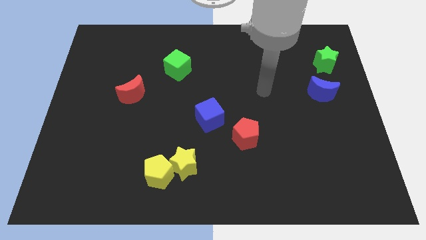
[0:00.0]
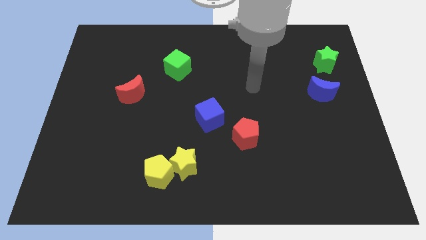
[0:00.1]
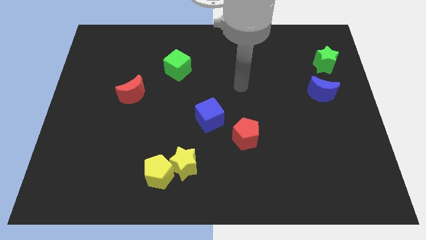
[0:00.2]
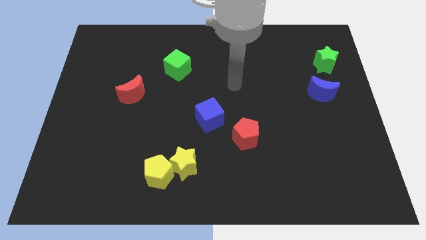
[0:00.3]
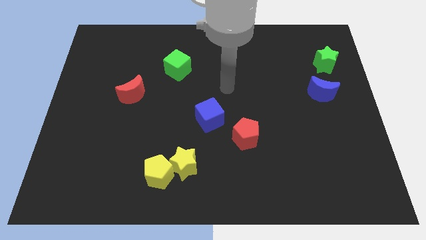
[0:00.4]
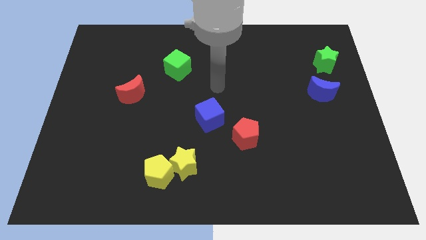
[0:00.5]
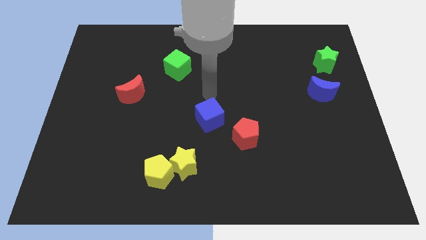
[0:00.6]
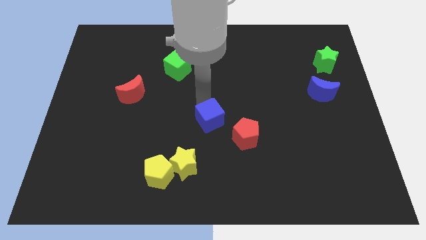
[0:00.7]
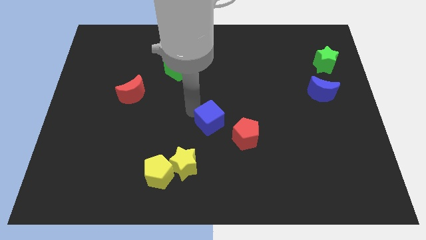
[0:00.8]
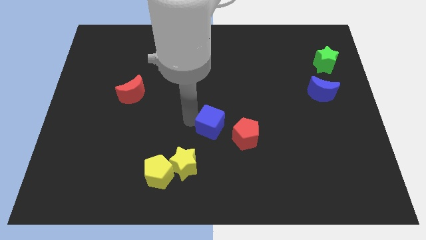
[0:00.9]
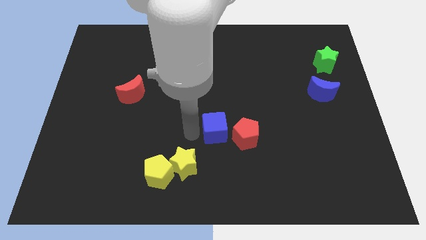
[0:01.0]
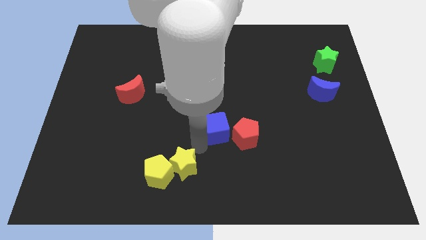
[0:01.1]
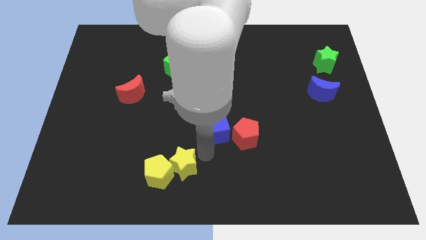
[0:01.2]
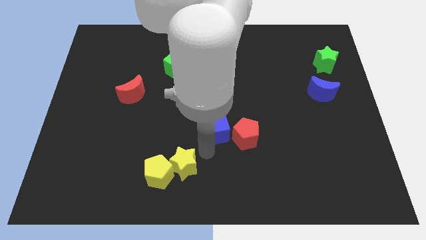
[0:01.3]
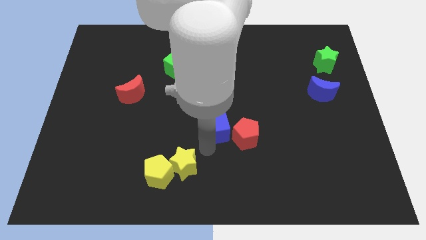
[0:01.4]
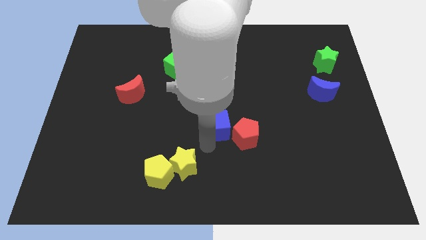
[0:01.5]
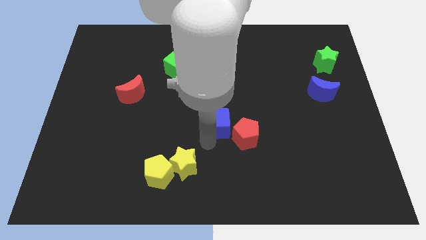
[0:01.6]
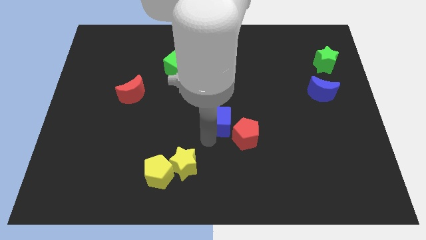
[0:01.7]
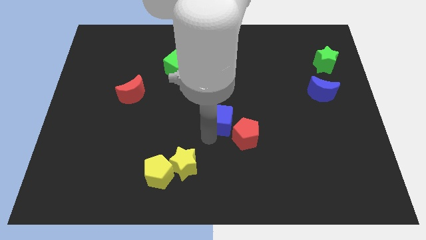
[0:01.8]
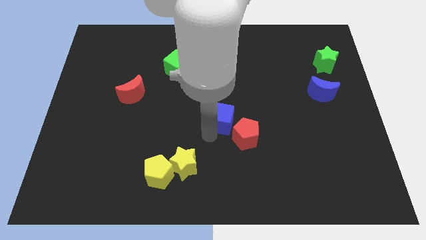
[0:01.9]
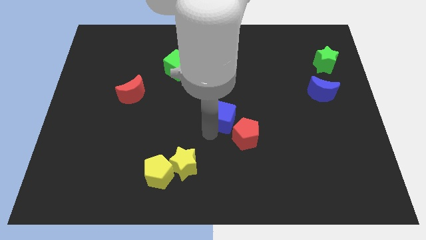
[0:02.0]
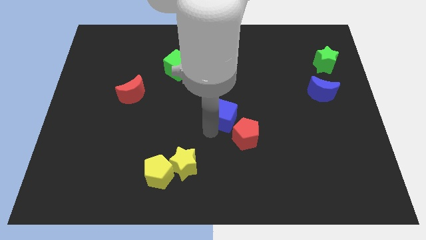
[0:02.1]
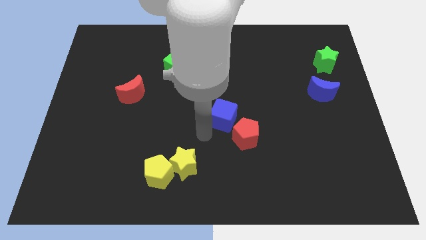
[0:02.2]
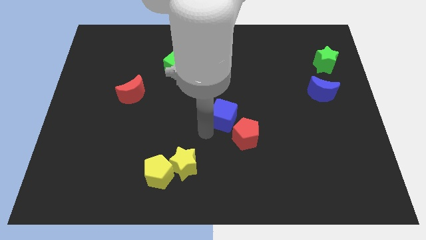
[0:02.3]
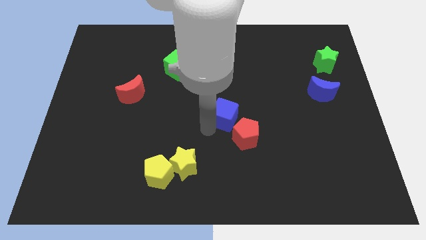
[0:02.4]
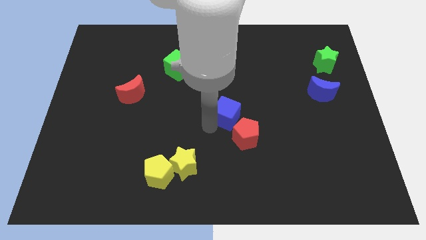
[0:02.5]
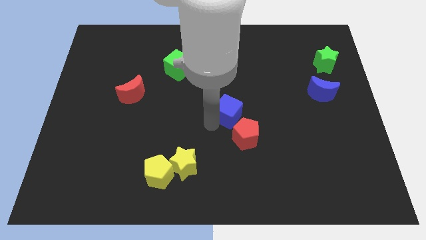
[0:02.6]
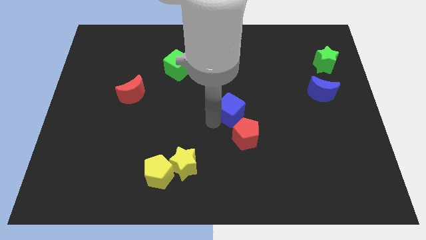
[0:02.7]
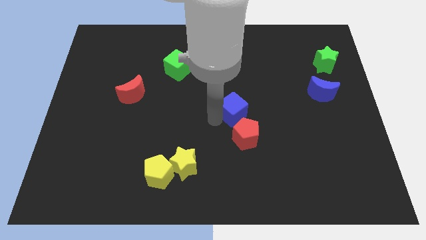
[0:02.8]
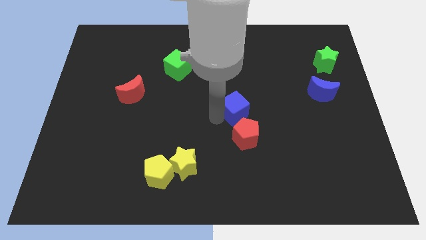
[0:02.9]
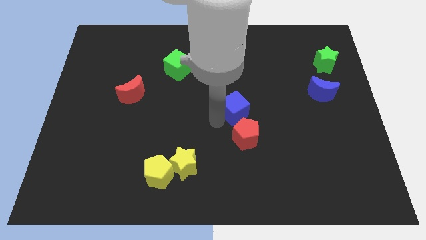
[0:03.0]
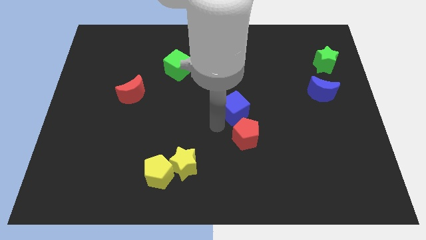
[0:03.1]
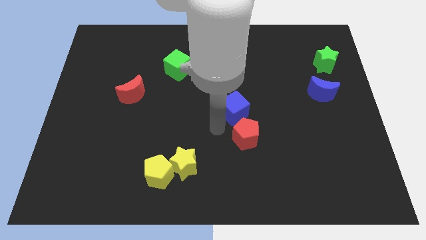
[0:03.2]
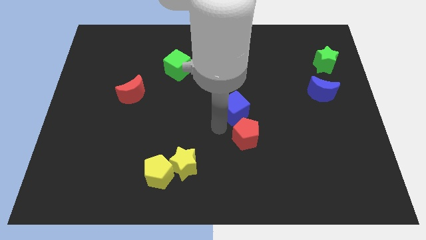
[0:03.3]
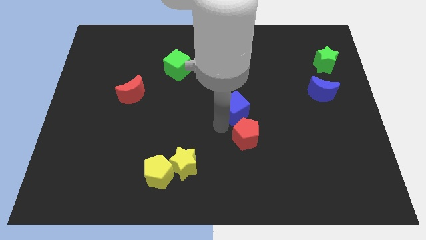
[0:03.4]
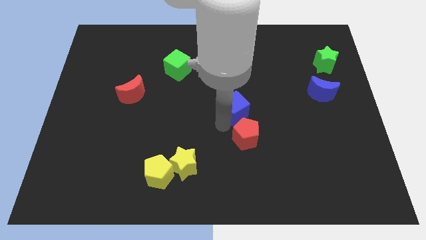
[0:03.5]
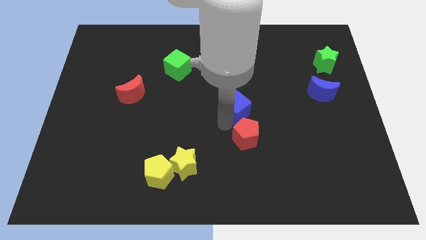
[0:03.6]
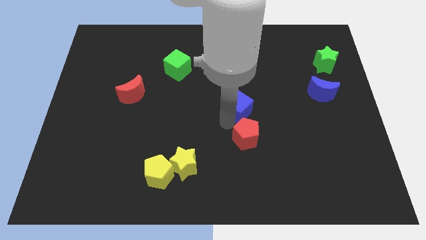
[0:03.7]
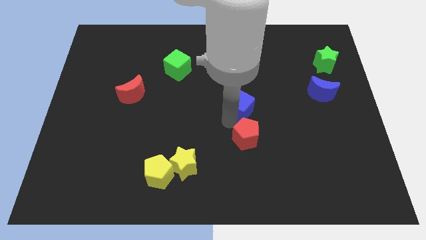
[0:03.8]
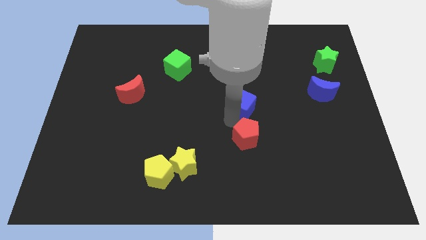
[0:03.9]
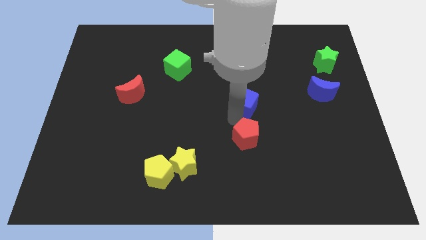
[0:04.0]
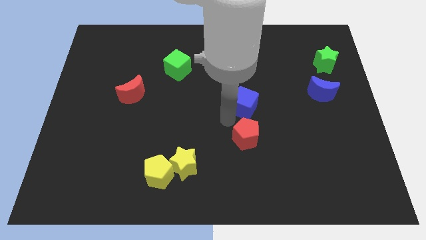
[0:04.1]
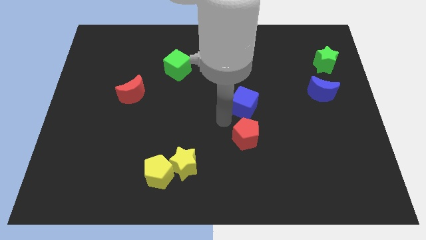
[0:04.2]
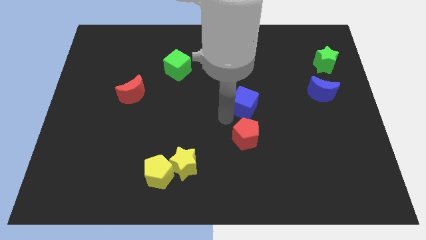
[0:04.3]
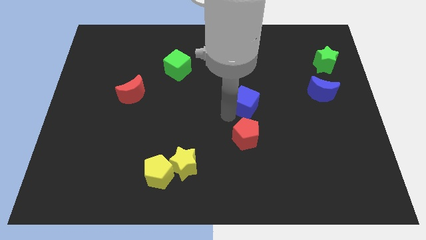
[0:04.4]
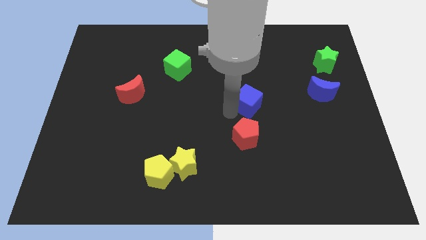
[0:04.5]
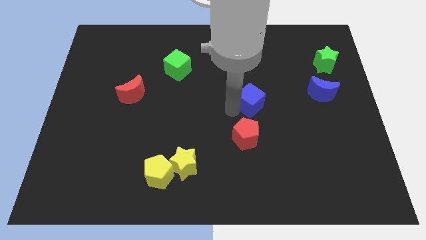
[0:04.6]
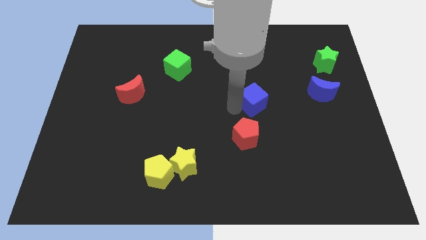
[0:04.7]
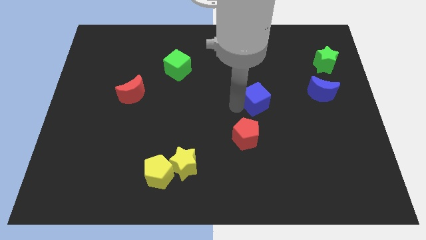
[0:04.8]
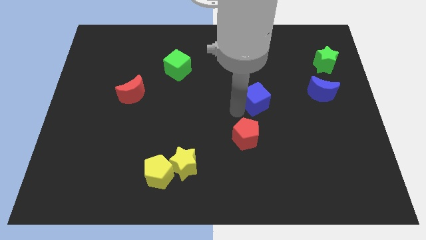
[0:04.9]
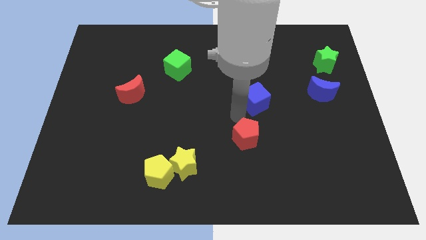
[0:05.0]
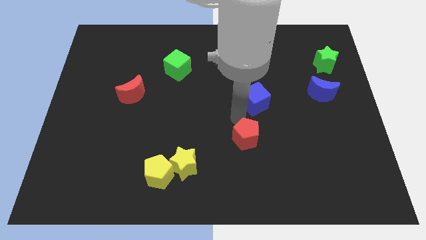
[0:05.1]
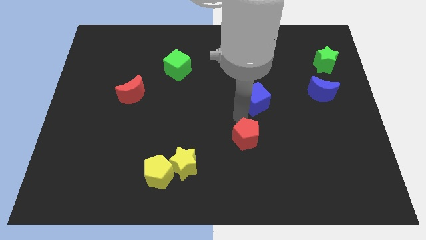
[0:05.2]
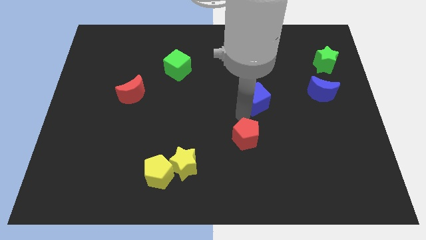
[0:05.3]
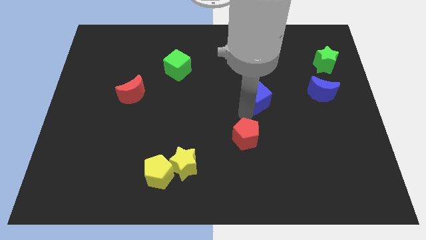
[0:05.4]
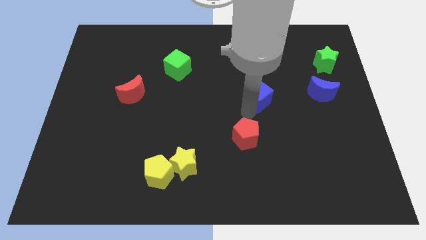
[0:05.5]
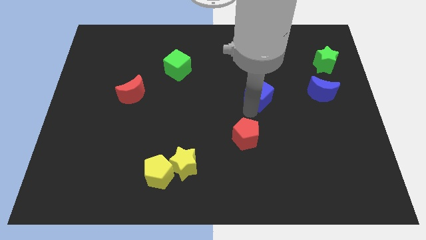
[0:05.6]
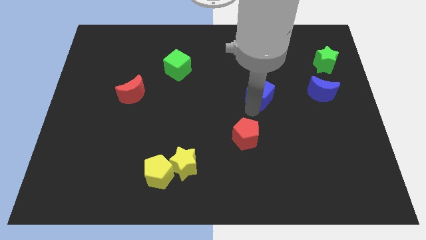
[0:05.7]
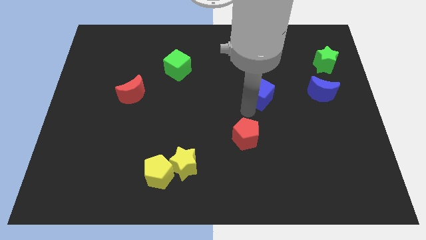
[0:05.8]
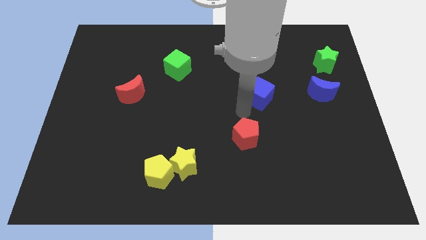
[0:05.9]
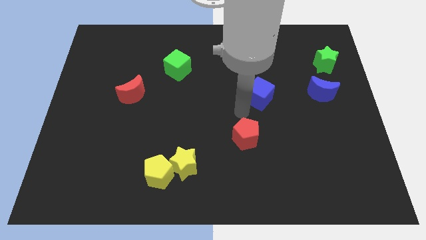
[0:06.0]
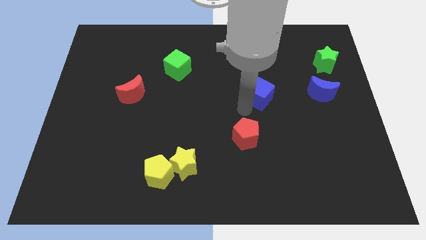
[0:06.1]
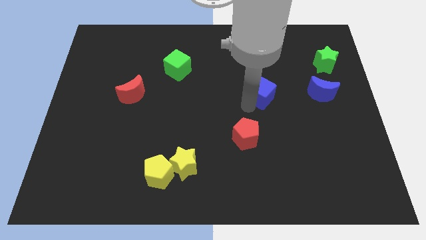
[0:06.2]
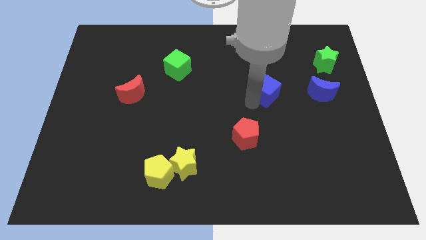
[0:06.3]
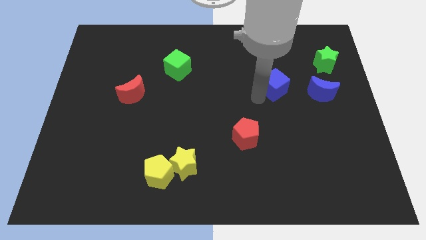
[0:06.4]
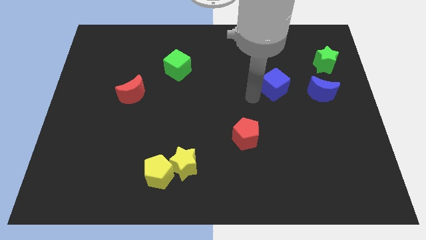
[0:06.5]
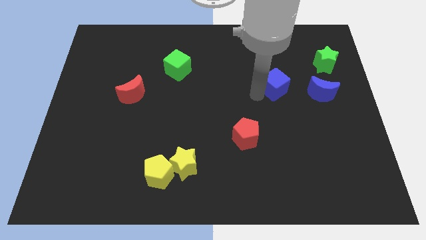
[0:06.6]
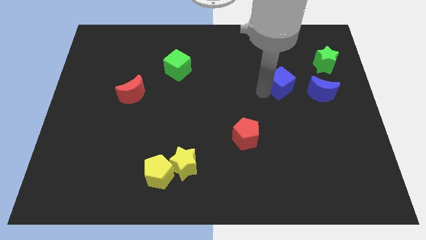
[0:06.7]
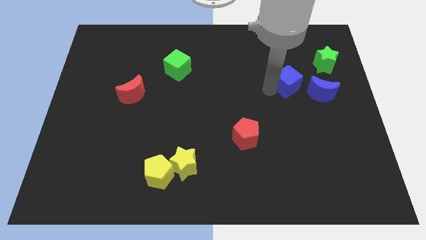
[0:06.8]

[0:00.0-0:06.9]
push the blue cube to the top left of the blue moon
